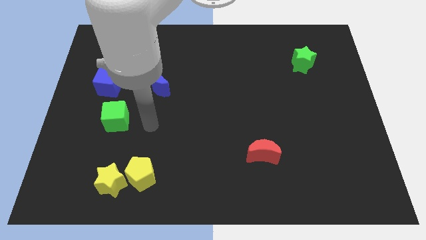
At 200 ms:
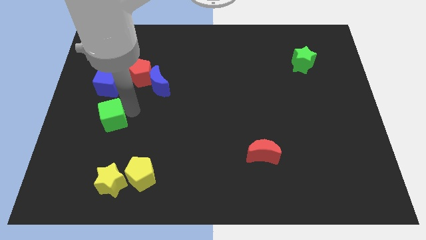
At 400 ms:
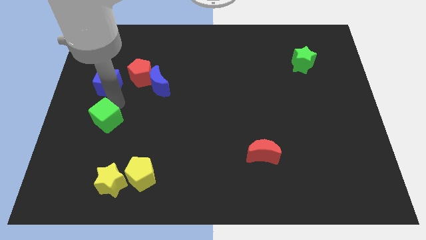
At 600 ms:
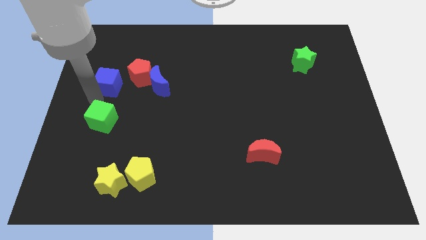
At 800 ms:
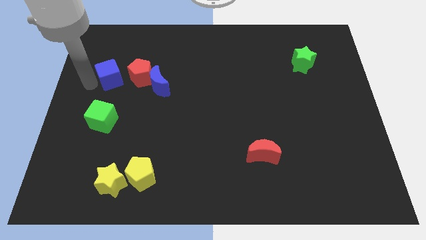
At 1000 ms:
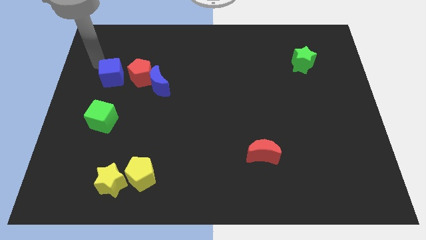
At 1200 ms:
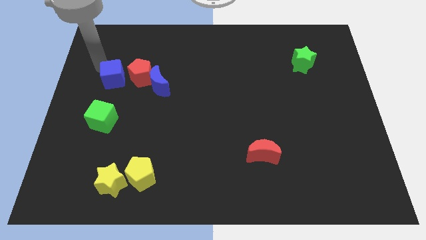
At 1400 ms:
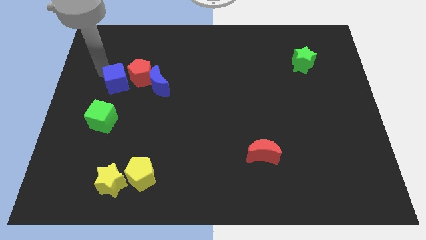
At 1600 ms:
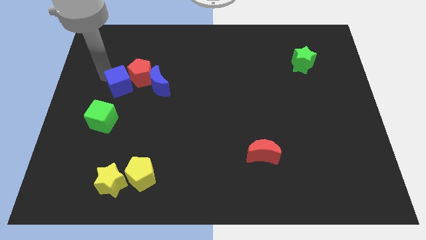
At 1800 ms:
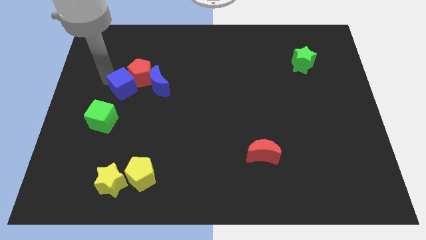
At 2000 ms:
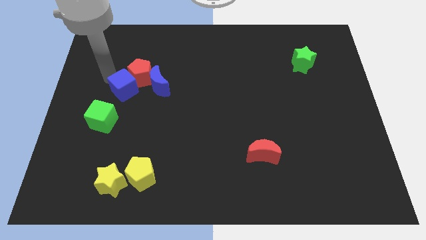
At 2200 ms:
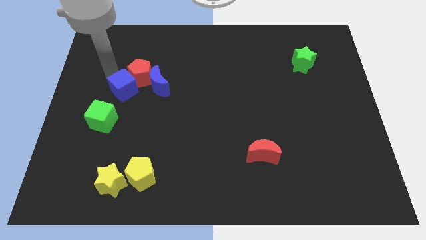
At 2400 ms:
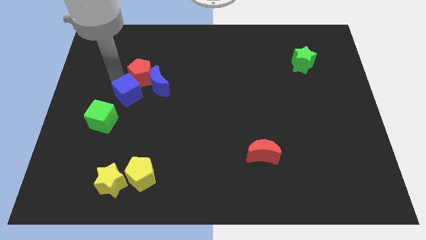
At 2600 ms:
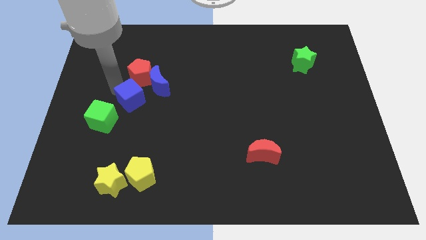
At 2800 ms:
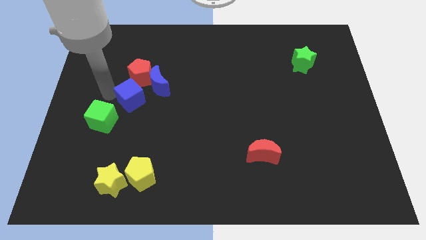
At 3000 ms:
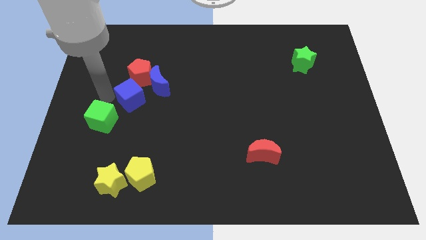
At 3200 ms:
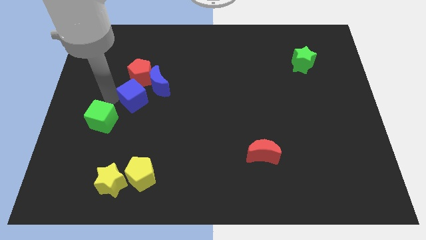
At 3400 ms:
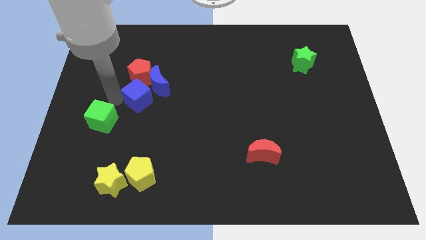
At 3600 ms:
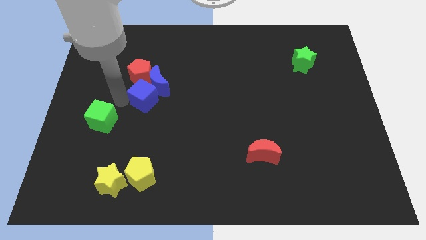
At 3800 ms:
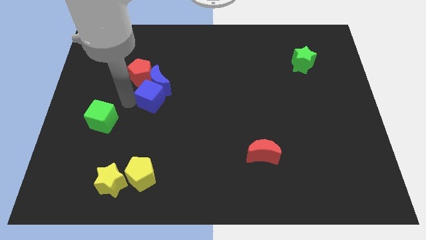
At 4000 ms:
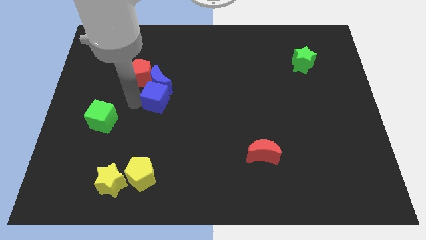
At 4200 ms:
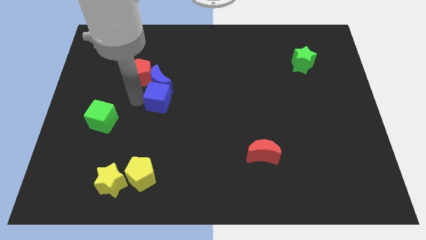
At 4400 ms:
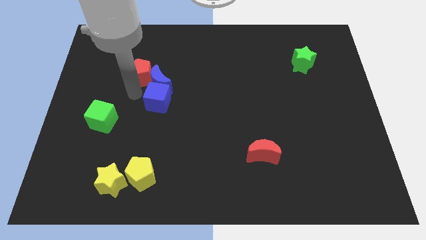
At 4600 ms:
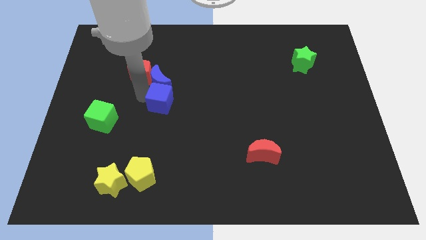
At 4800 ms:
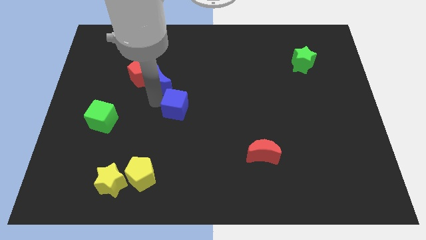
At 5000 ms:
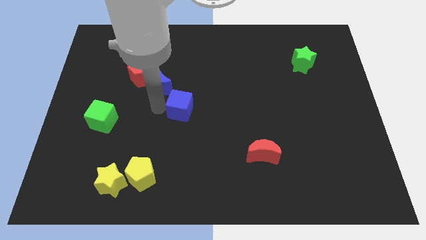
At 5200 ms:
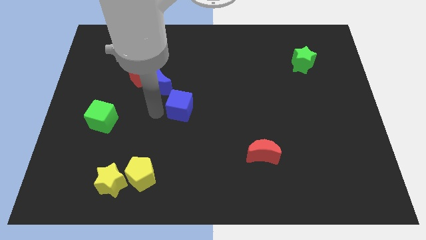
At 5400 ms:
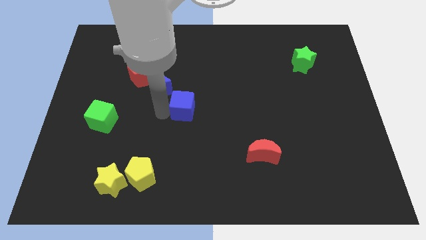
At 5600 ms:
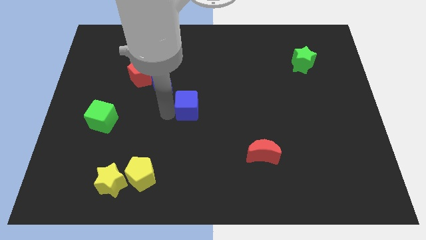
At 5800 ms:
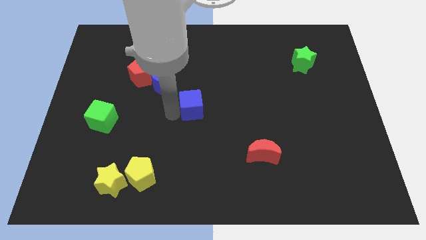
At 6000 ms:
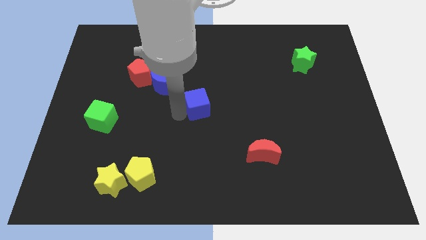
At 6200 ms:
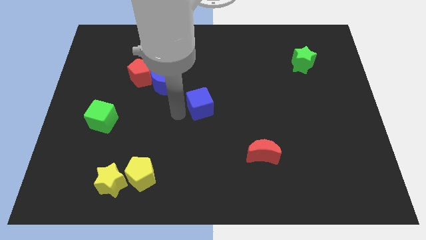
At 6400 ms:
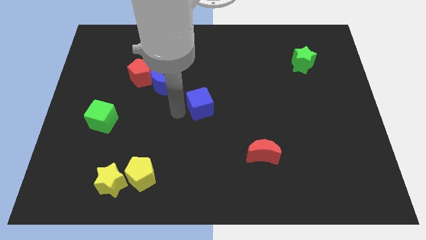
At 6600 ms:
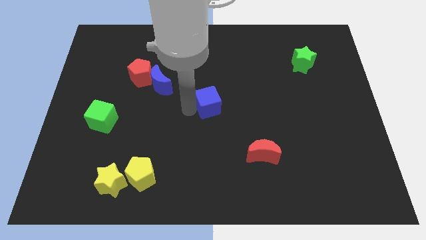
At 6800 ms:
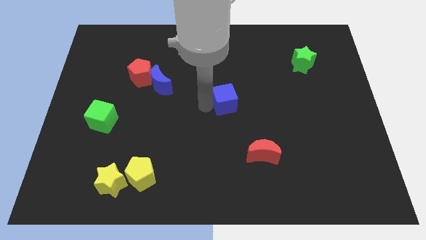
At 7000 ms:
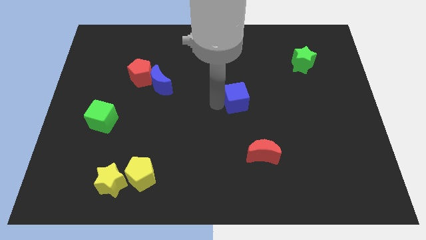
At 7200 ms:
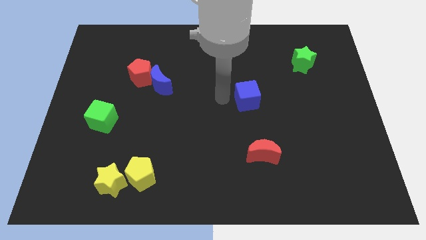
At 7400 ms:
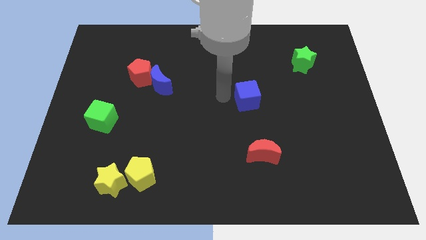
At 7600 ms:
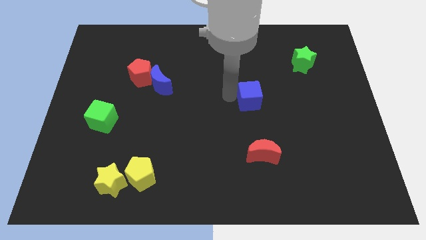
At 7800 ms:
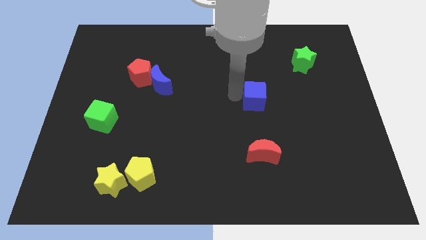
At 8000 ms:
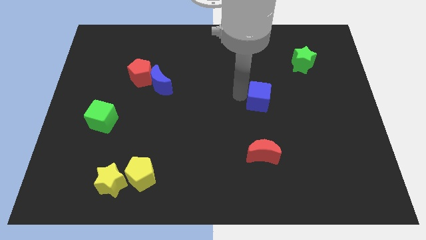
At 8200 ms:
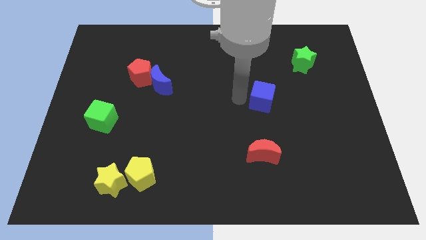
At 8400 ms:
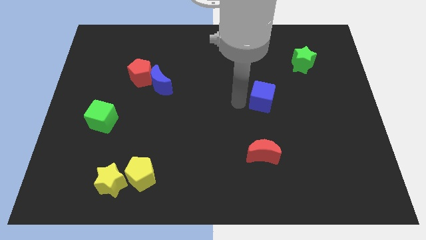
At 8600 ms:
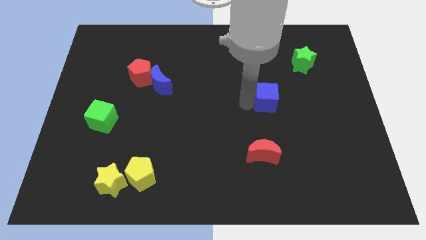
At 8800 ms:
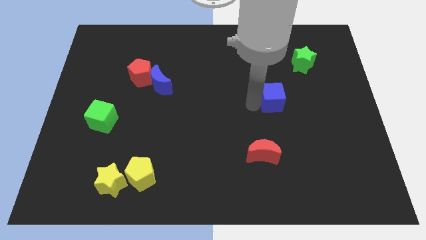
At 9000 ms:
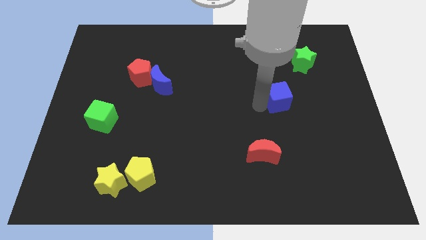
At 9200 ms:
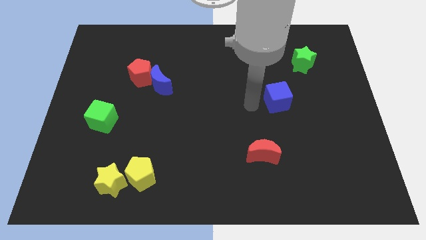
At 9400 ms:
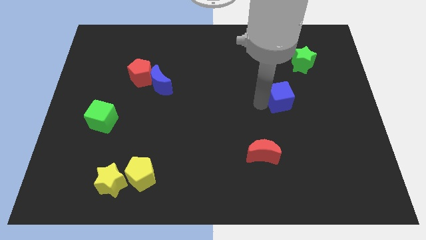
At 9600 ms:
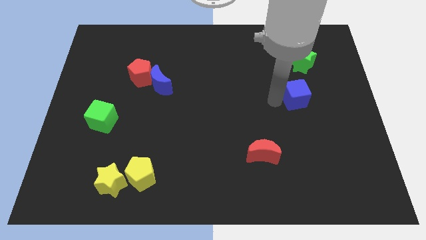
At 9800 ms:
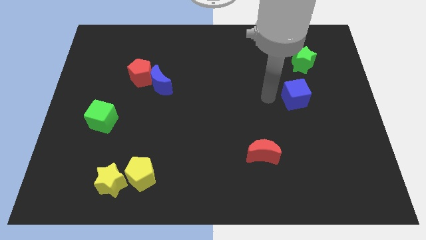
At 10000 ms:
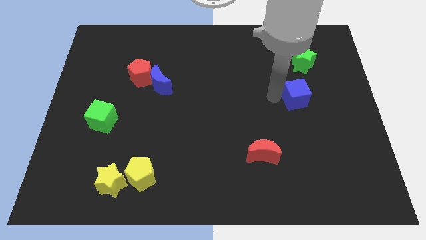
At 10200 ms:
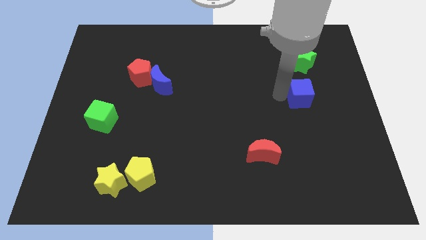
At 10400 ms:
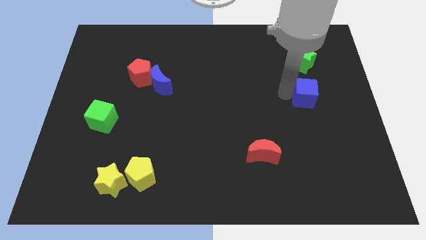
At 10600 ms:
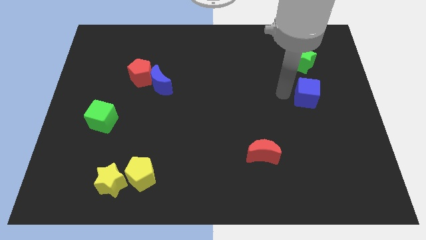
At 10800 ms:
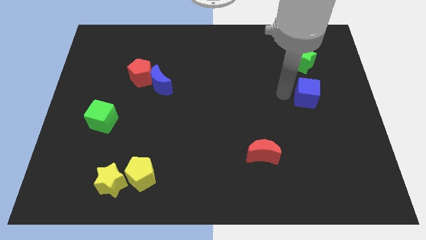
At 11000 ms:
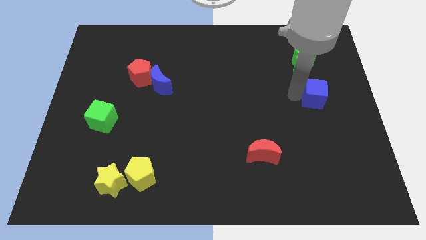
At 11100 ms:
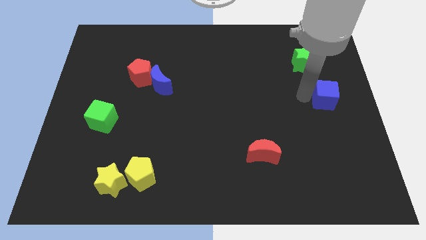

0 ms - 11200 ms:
put the blue cube to the right side

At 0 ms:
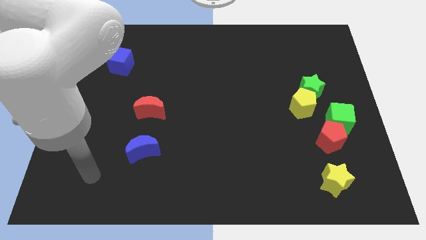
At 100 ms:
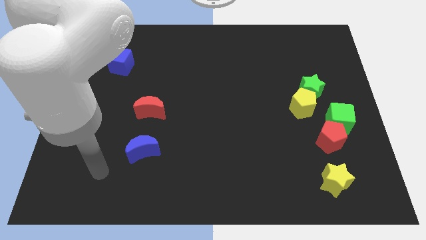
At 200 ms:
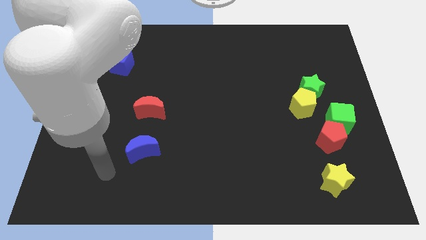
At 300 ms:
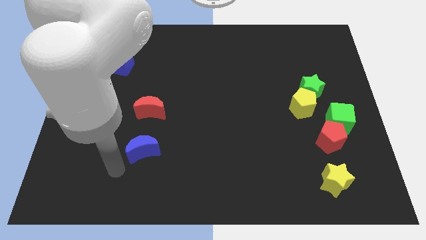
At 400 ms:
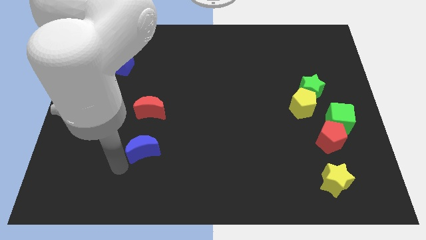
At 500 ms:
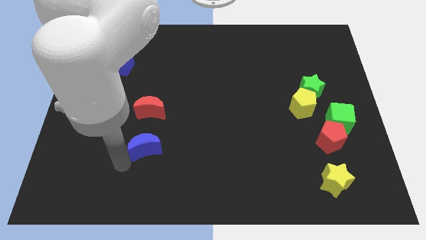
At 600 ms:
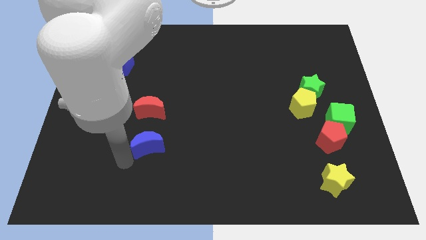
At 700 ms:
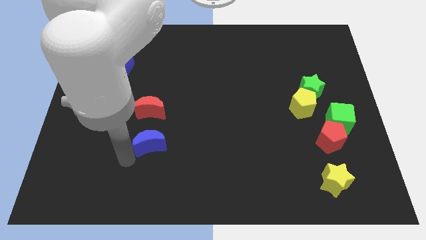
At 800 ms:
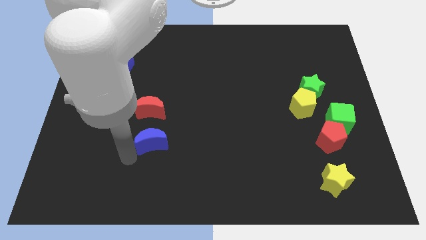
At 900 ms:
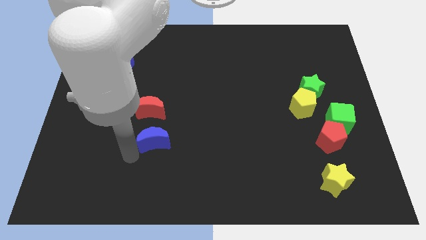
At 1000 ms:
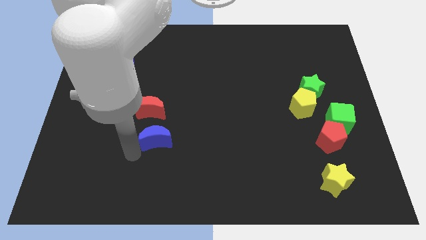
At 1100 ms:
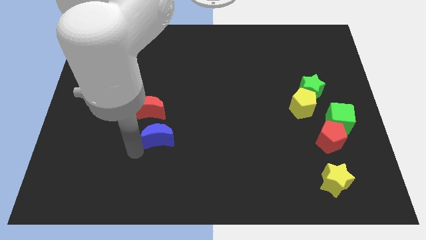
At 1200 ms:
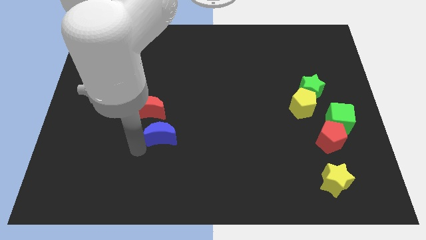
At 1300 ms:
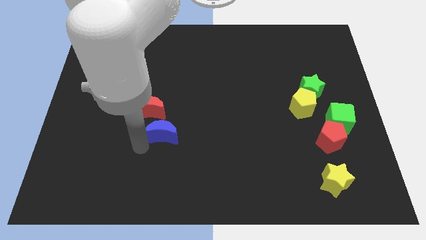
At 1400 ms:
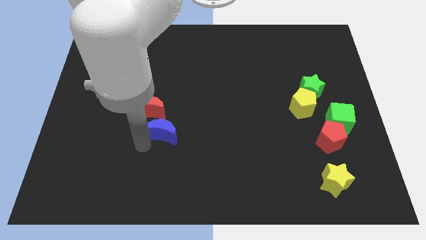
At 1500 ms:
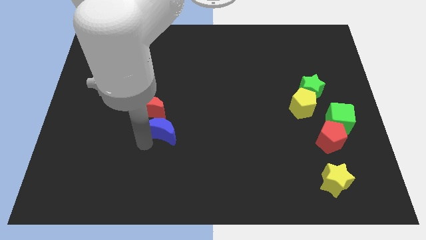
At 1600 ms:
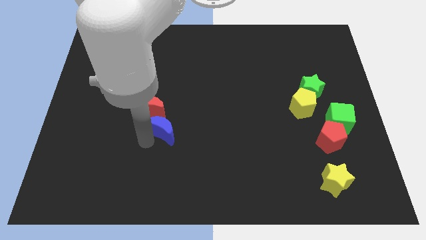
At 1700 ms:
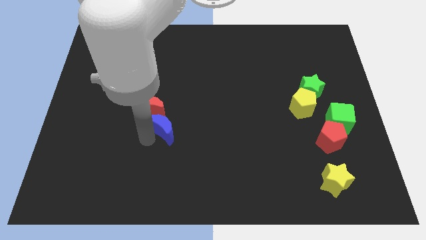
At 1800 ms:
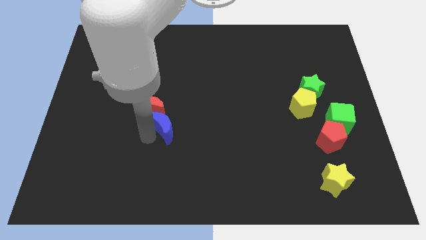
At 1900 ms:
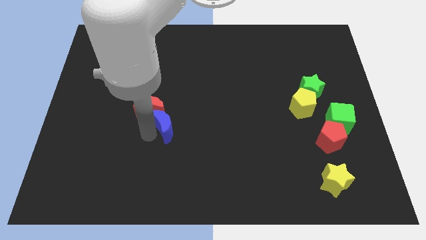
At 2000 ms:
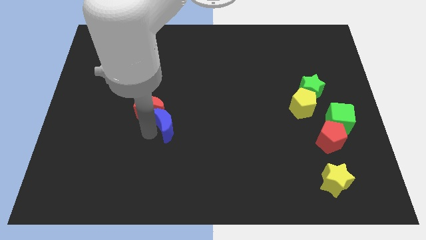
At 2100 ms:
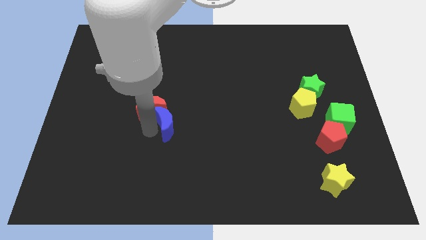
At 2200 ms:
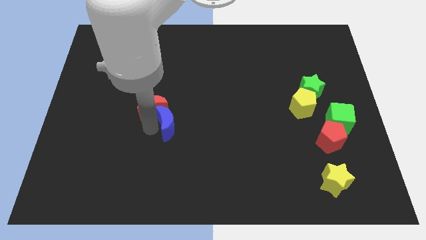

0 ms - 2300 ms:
push the blue moon to the center of the board
